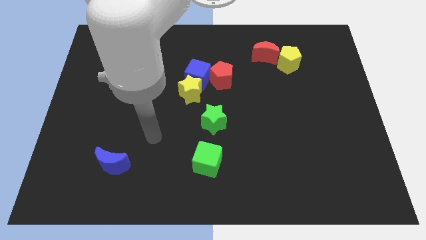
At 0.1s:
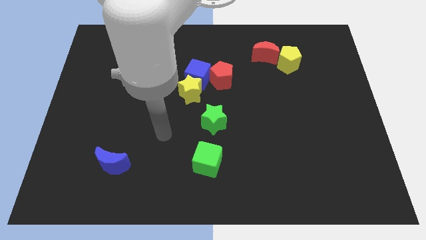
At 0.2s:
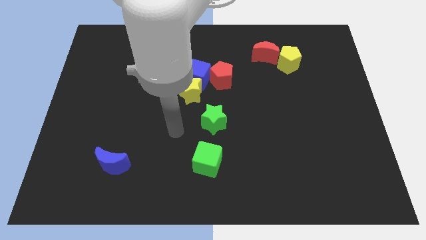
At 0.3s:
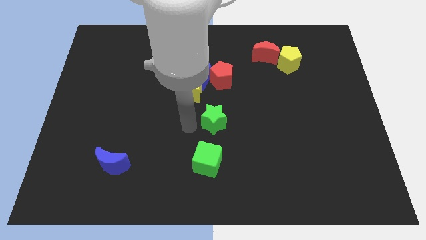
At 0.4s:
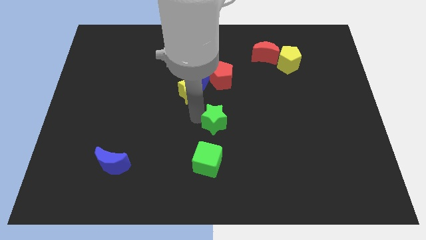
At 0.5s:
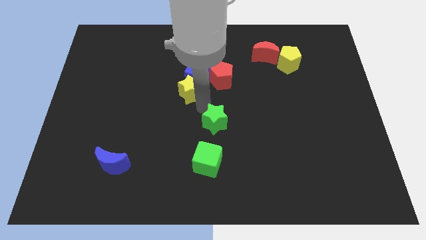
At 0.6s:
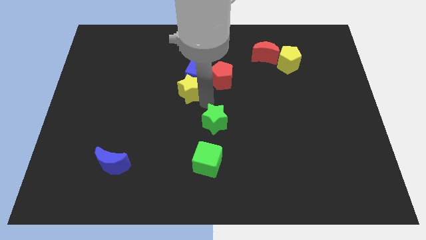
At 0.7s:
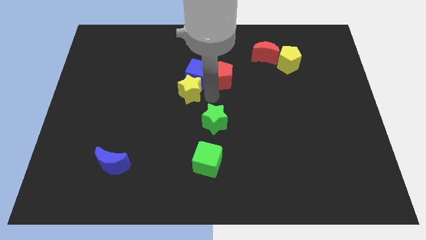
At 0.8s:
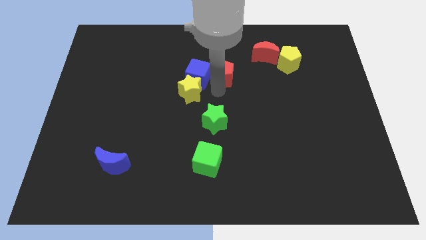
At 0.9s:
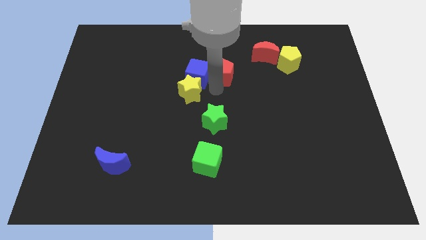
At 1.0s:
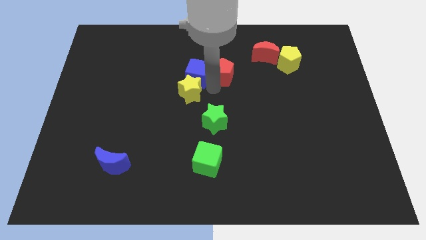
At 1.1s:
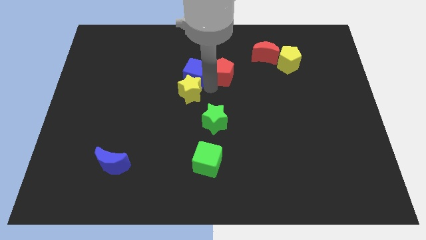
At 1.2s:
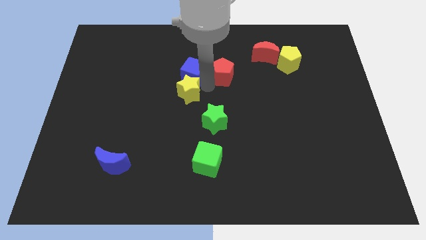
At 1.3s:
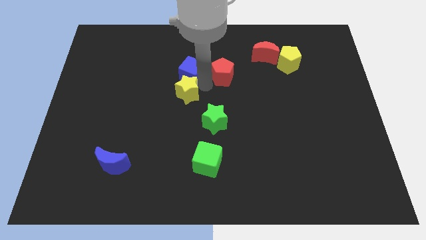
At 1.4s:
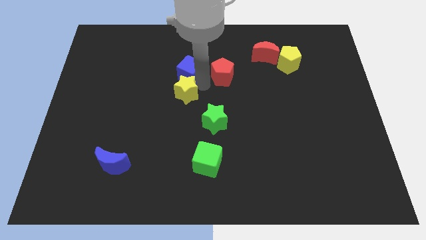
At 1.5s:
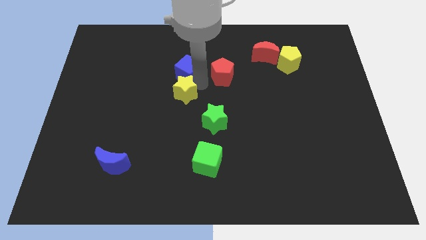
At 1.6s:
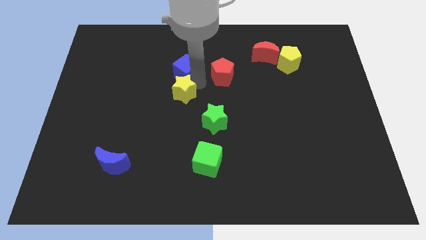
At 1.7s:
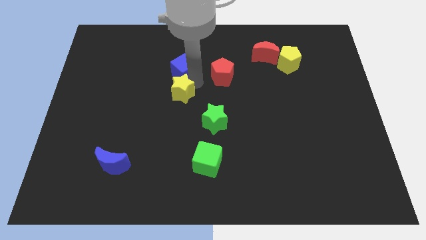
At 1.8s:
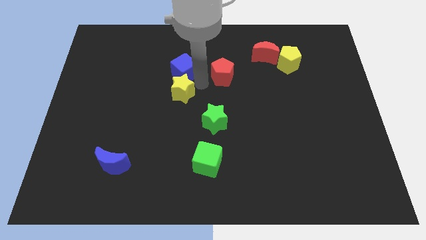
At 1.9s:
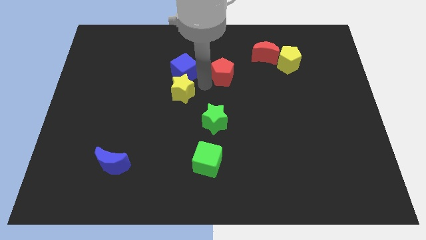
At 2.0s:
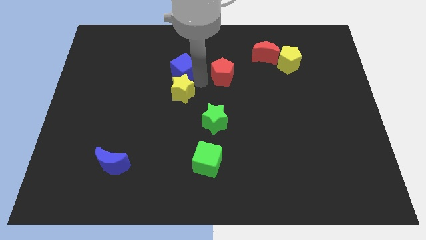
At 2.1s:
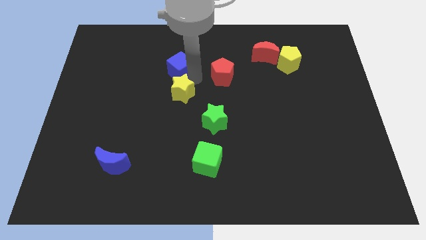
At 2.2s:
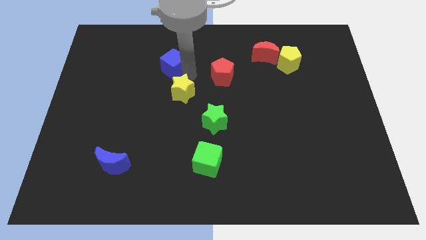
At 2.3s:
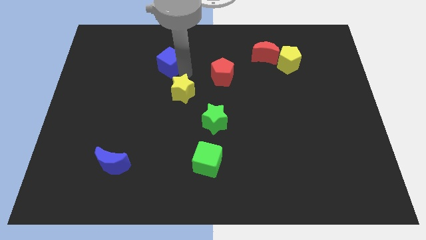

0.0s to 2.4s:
pull the blue cube apart from the yellow star and red pentagon

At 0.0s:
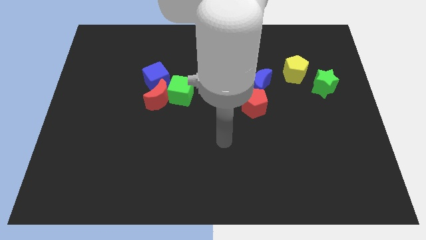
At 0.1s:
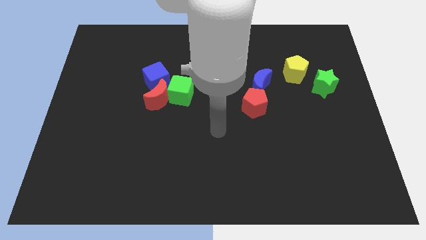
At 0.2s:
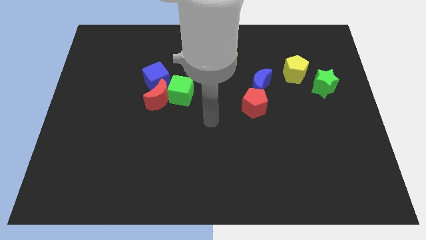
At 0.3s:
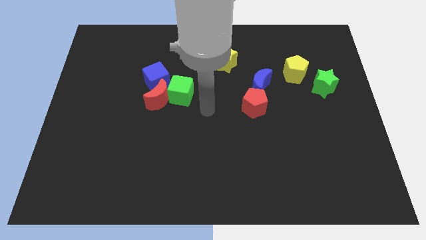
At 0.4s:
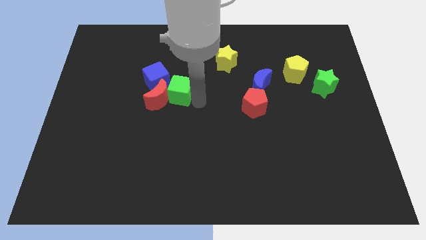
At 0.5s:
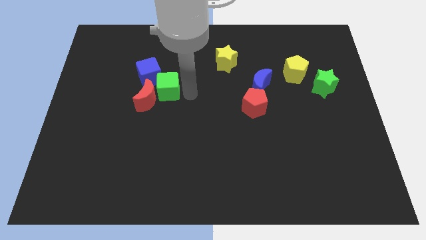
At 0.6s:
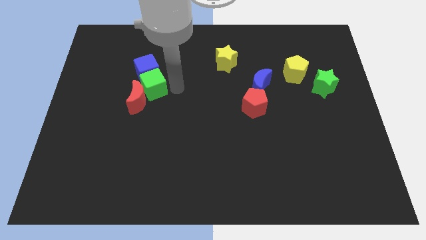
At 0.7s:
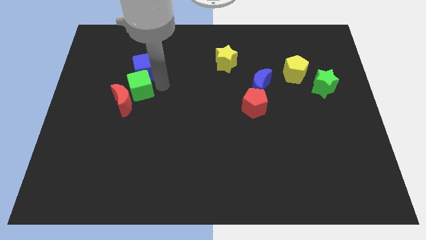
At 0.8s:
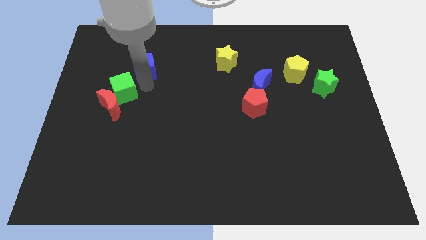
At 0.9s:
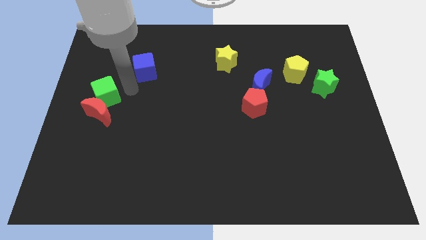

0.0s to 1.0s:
pull the red moon apart from the green cube and blue cube

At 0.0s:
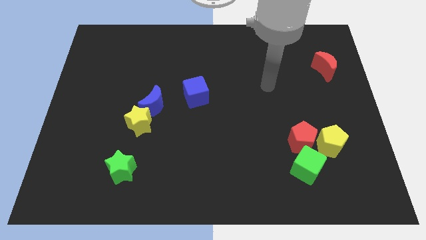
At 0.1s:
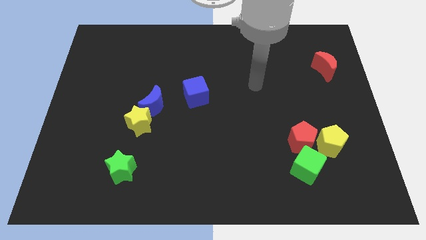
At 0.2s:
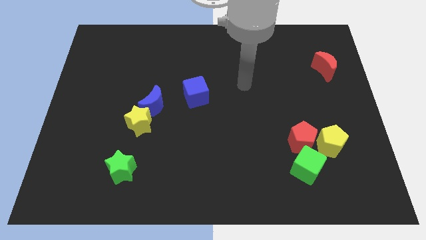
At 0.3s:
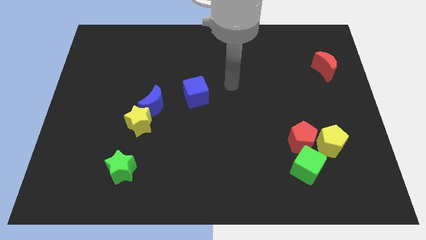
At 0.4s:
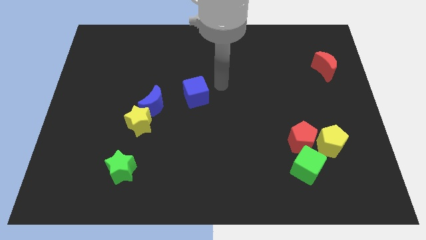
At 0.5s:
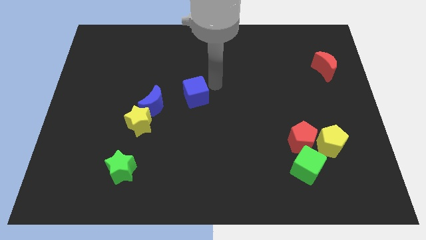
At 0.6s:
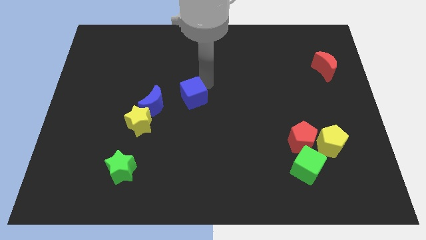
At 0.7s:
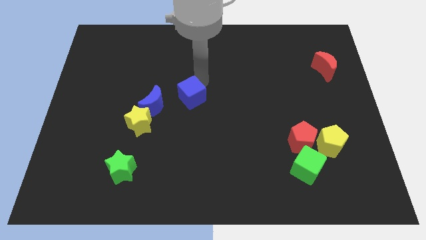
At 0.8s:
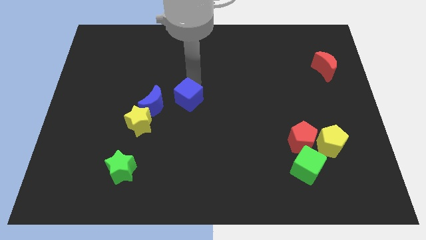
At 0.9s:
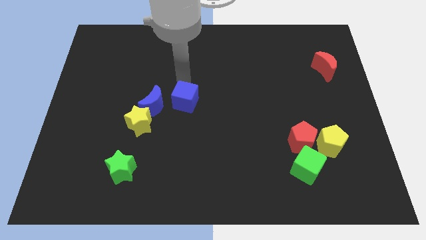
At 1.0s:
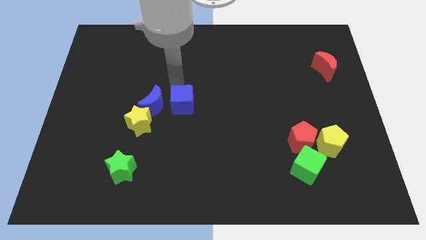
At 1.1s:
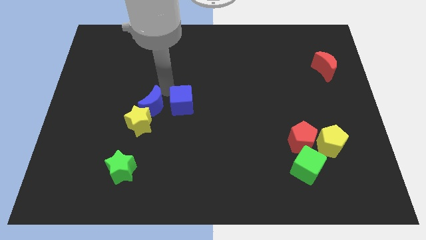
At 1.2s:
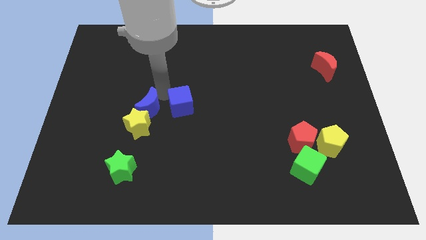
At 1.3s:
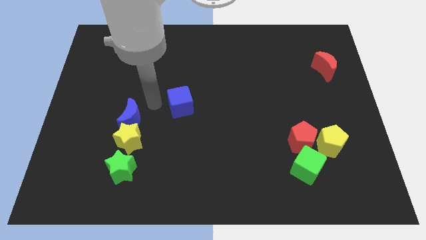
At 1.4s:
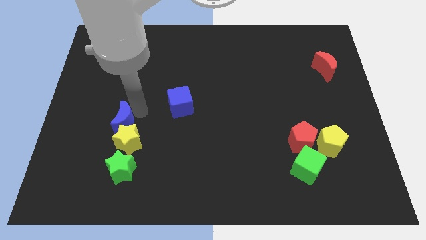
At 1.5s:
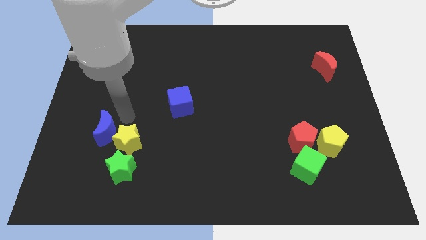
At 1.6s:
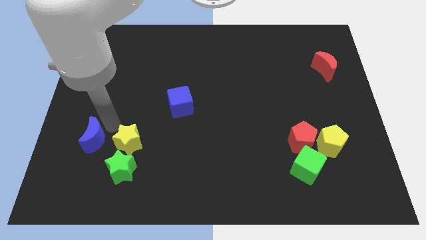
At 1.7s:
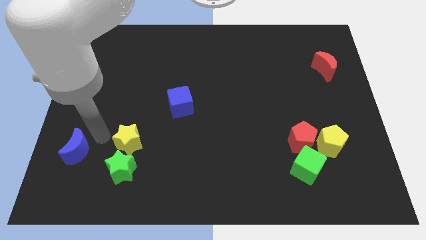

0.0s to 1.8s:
move the yellow star away from the blue moon

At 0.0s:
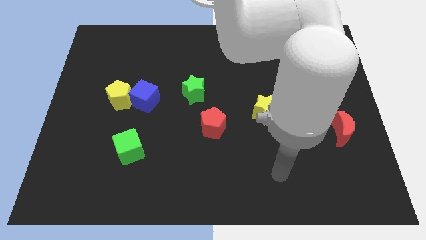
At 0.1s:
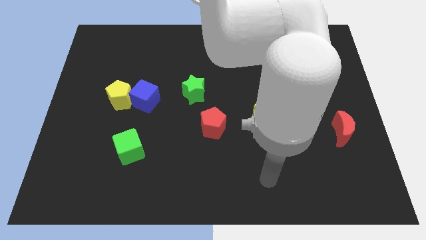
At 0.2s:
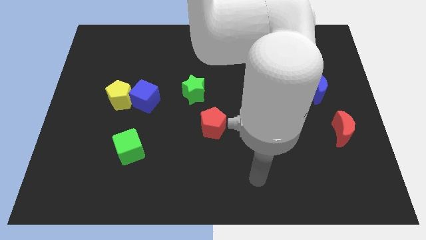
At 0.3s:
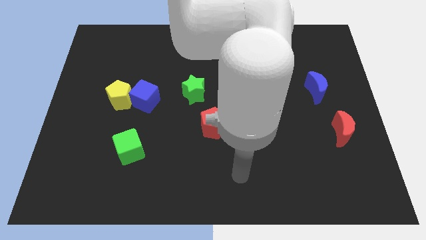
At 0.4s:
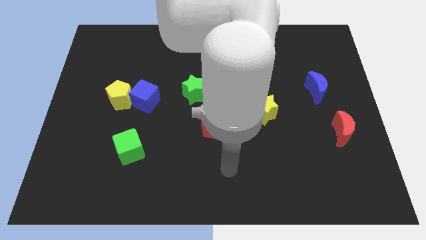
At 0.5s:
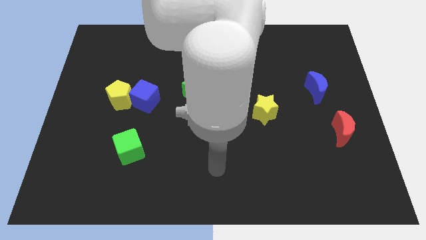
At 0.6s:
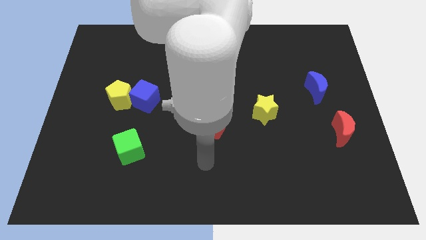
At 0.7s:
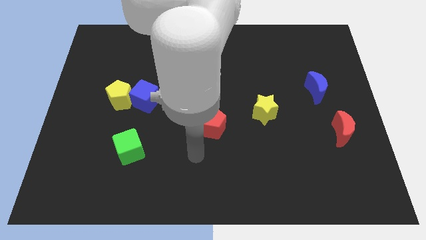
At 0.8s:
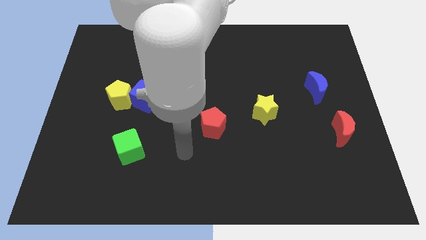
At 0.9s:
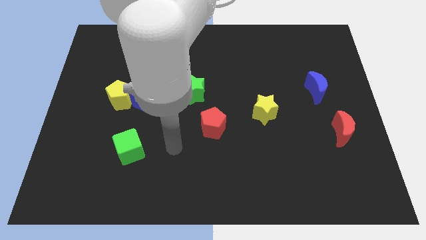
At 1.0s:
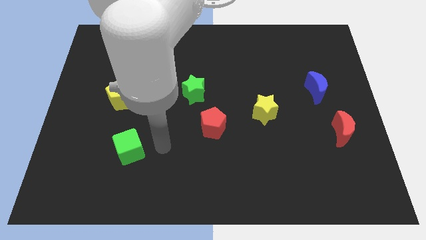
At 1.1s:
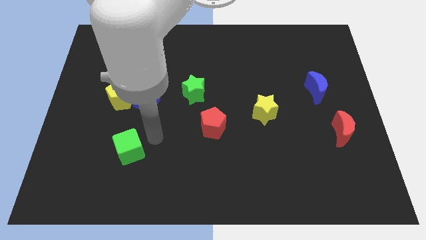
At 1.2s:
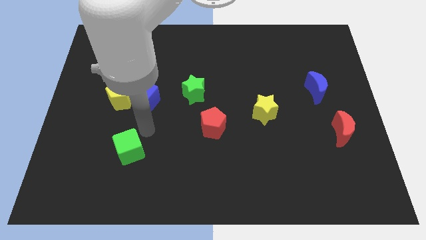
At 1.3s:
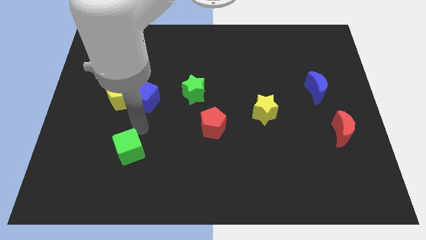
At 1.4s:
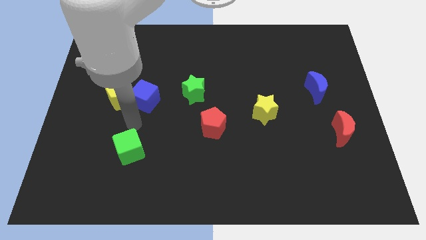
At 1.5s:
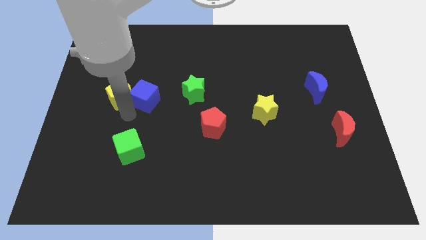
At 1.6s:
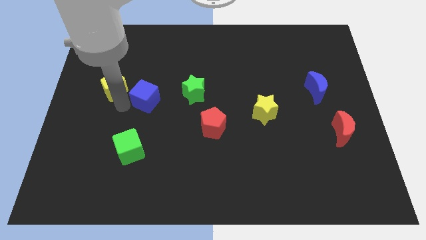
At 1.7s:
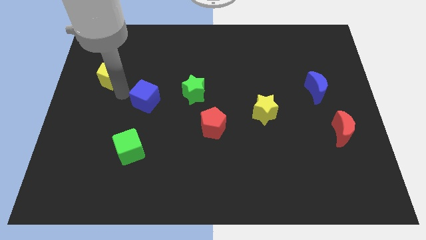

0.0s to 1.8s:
separate the blue cube from the yellow pentagon

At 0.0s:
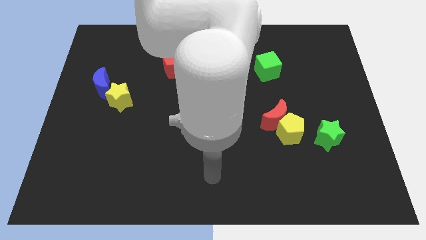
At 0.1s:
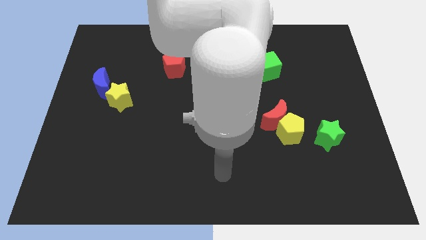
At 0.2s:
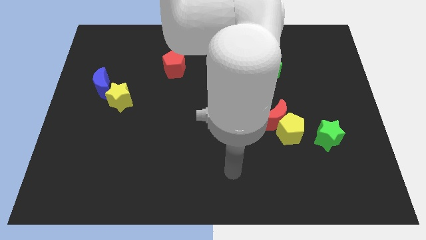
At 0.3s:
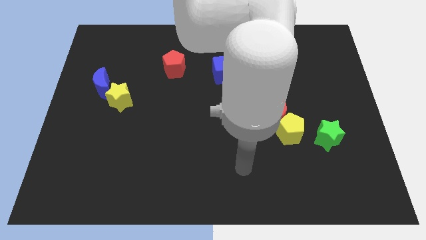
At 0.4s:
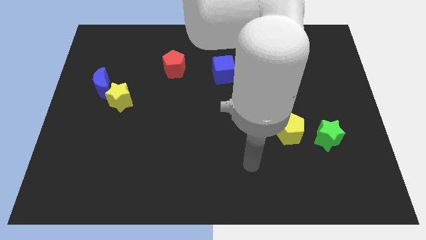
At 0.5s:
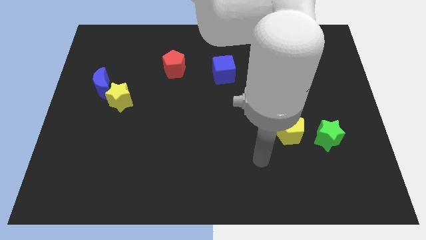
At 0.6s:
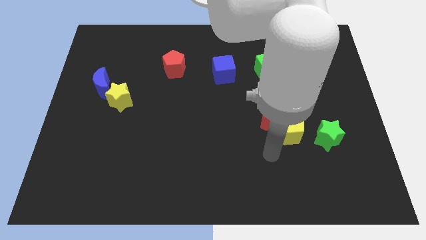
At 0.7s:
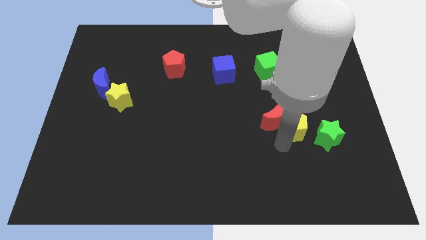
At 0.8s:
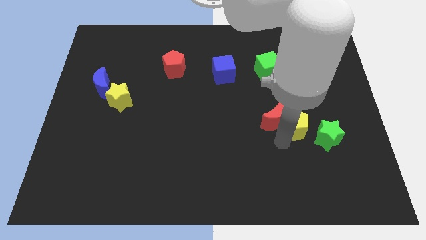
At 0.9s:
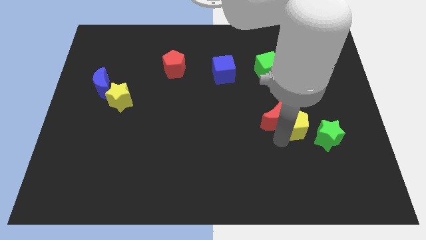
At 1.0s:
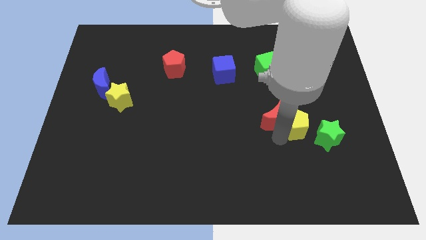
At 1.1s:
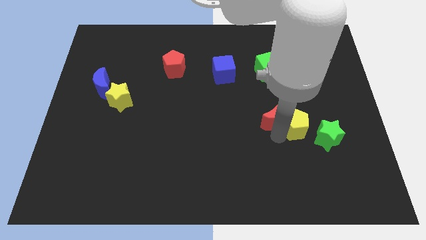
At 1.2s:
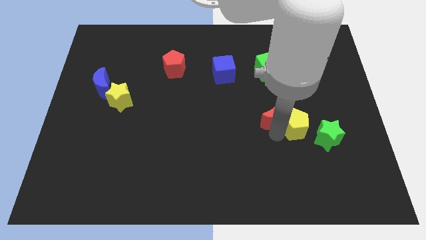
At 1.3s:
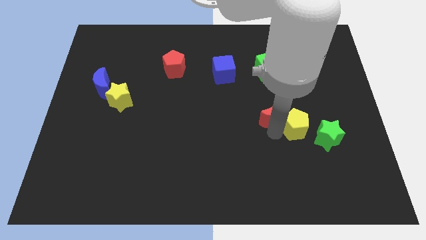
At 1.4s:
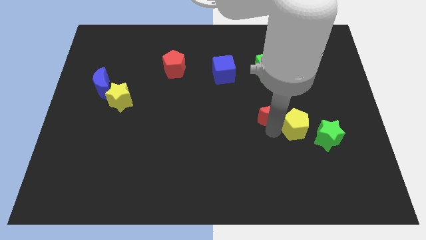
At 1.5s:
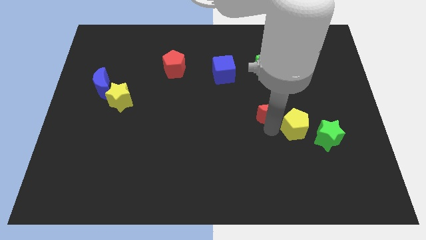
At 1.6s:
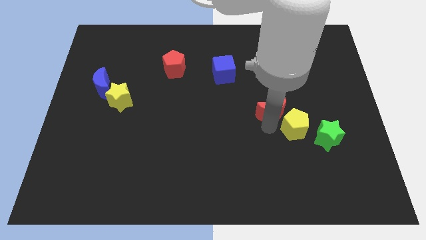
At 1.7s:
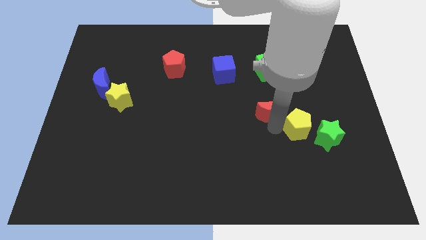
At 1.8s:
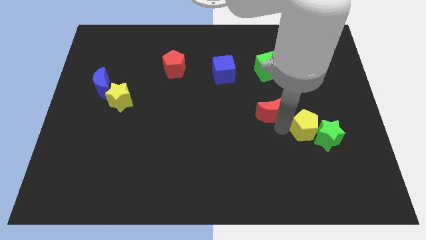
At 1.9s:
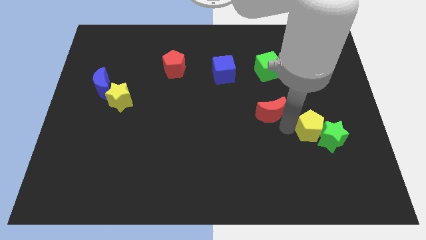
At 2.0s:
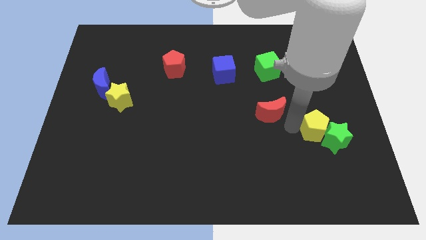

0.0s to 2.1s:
pull the red moon apart from the yellow pentagon

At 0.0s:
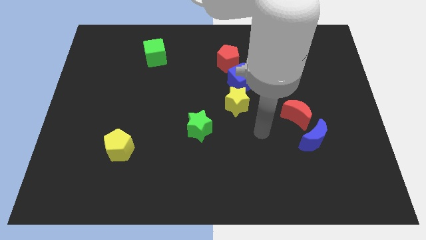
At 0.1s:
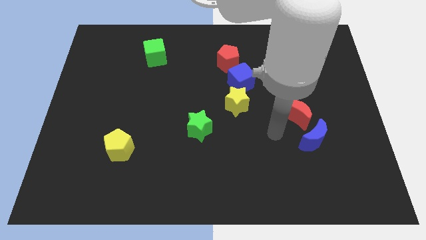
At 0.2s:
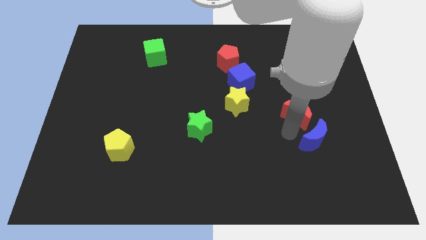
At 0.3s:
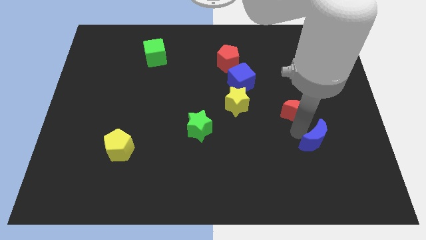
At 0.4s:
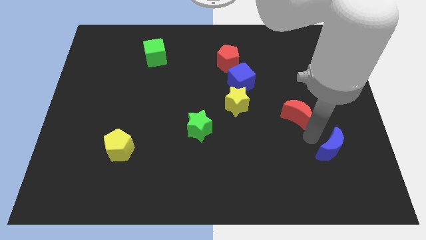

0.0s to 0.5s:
separate the red moon from the blue moon
